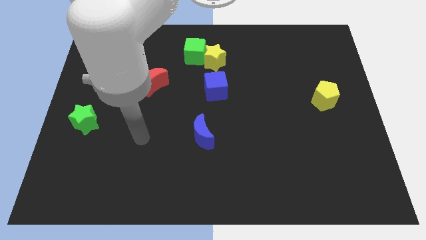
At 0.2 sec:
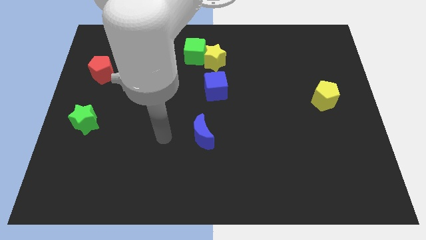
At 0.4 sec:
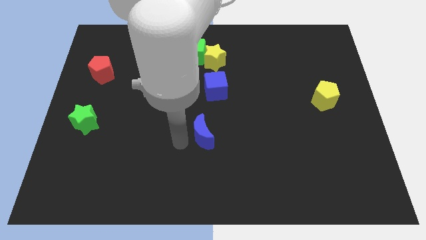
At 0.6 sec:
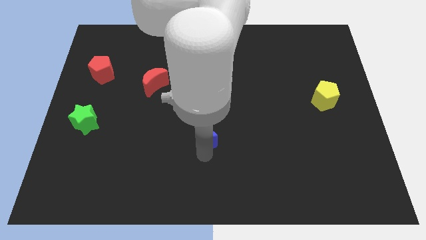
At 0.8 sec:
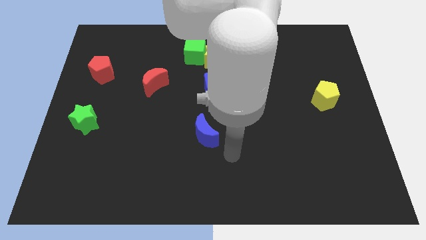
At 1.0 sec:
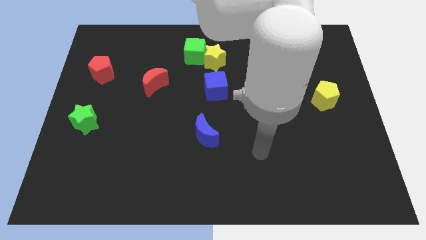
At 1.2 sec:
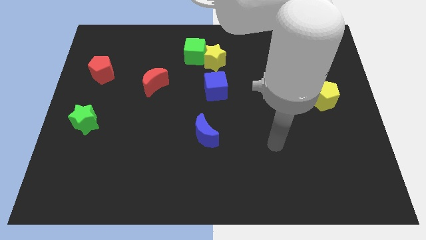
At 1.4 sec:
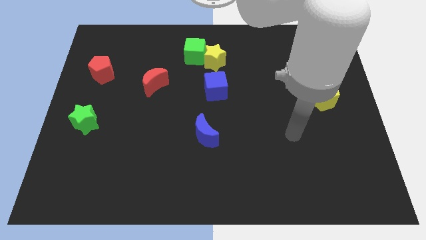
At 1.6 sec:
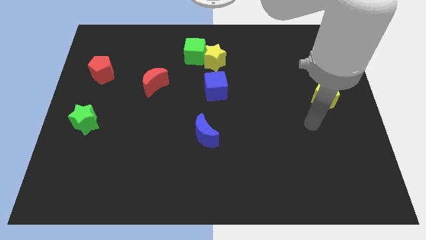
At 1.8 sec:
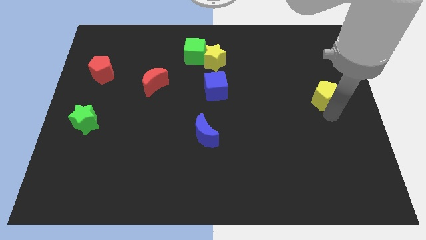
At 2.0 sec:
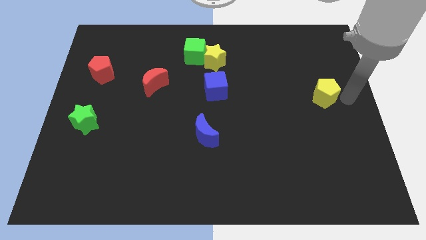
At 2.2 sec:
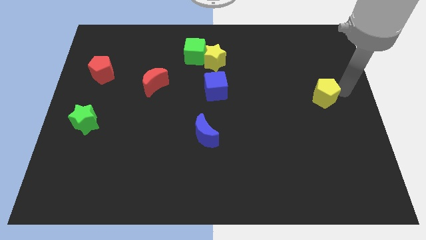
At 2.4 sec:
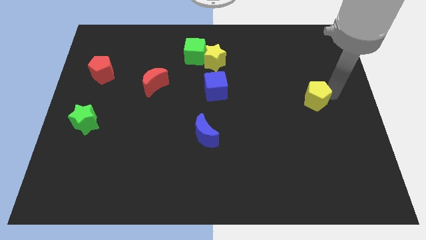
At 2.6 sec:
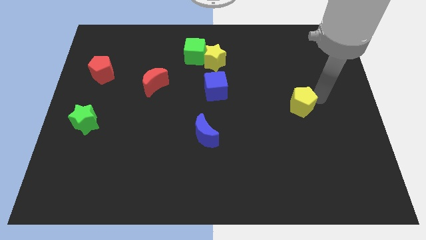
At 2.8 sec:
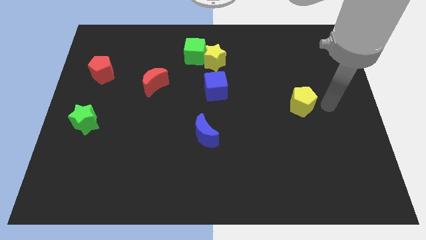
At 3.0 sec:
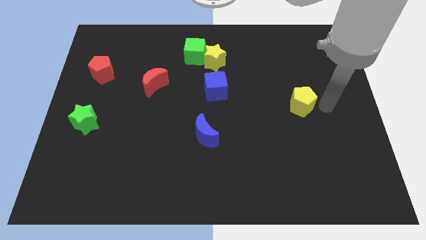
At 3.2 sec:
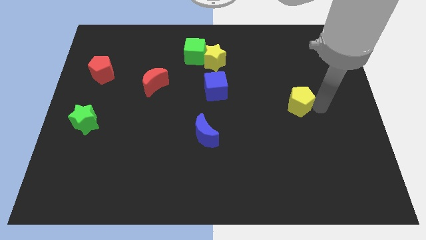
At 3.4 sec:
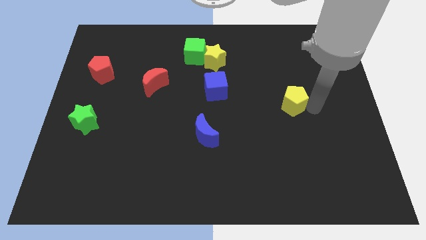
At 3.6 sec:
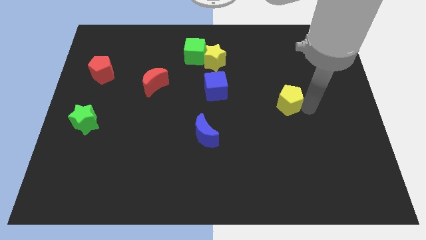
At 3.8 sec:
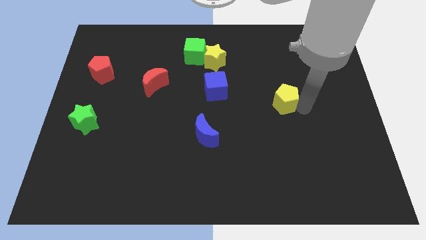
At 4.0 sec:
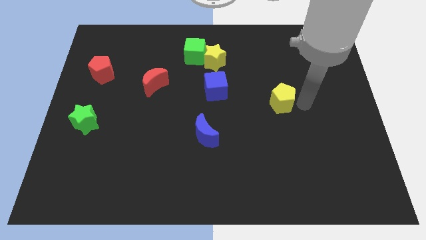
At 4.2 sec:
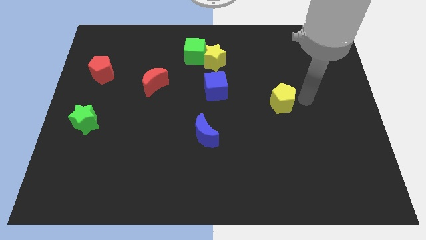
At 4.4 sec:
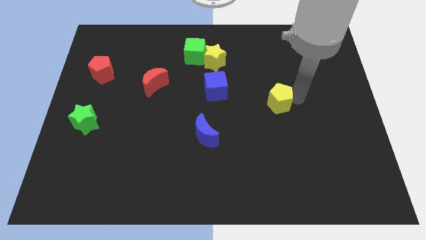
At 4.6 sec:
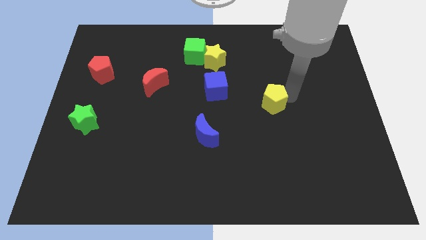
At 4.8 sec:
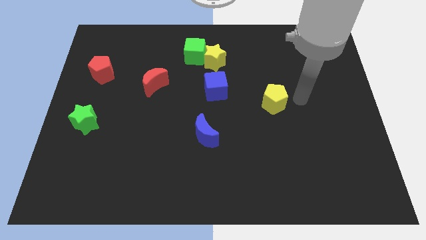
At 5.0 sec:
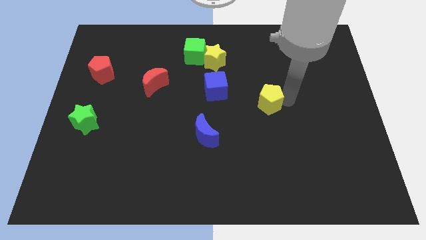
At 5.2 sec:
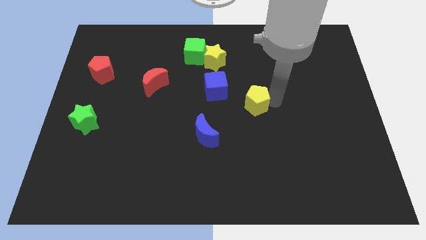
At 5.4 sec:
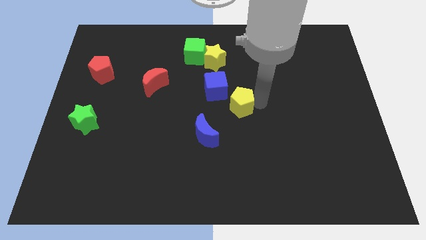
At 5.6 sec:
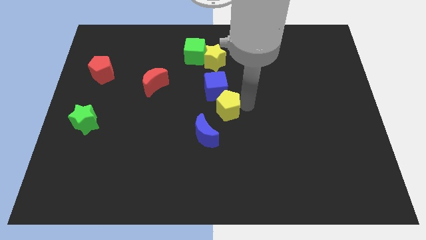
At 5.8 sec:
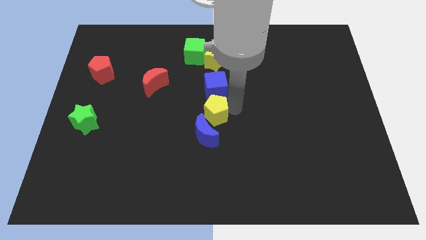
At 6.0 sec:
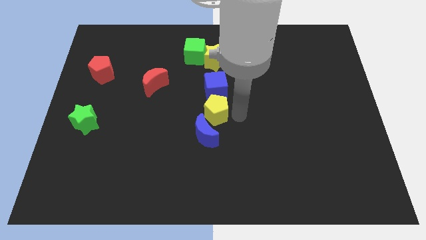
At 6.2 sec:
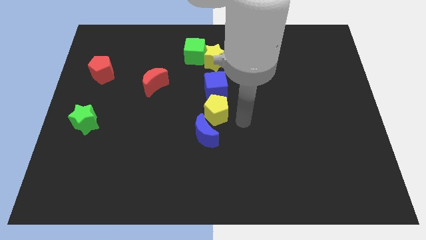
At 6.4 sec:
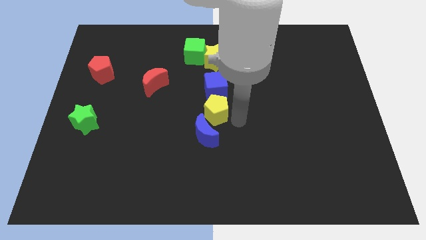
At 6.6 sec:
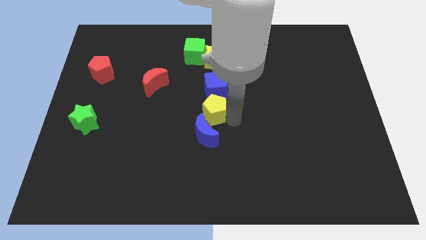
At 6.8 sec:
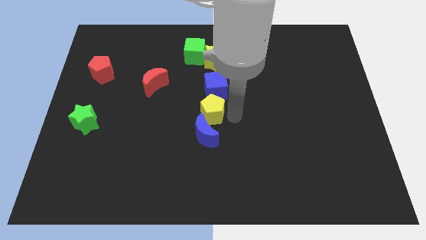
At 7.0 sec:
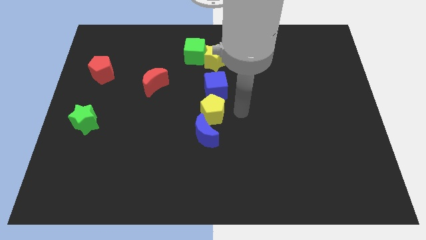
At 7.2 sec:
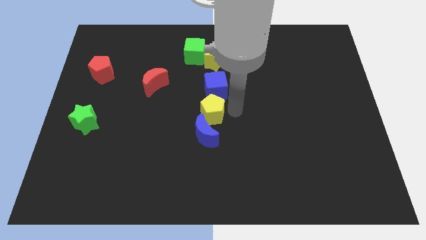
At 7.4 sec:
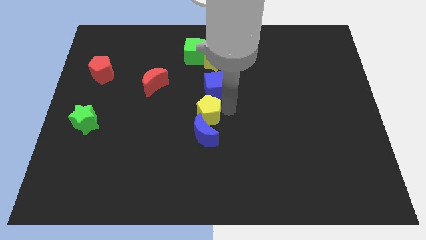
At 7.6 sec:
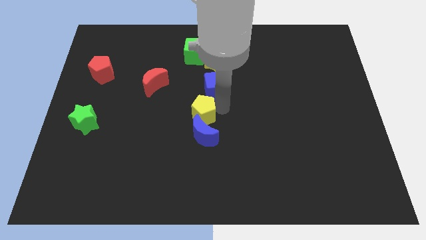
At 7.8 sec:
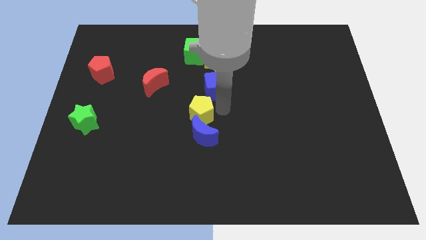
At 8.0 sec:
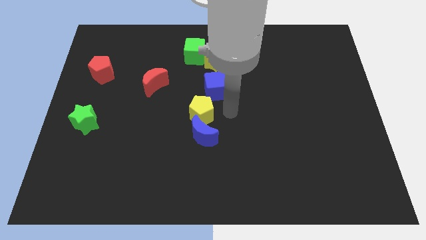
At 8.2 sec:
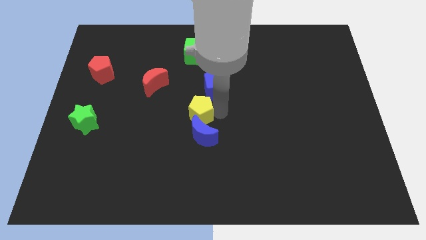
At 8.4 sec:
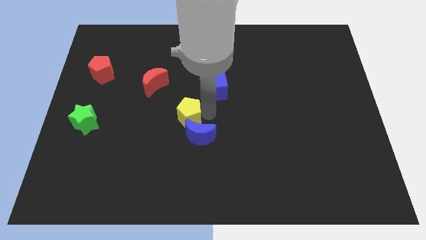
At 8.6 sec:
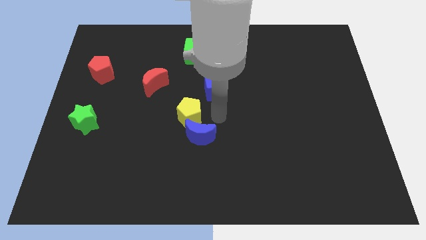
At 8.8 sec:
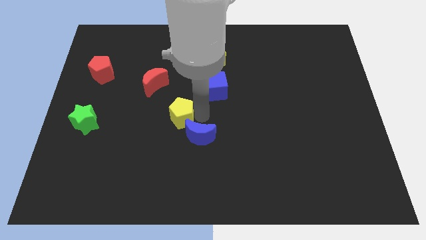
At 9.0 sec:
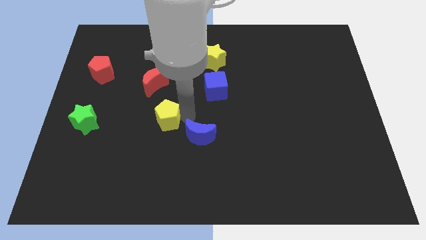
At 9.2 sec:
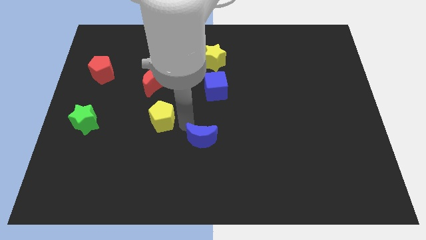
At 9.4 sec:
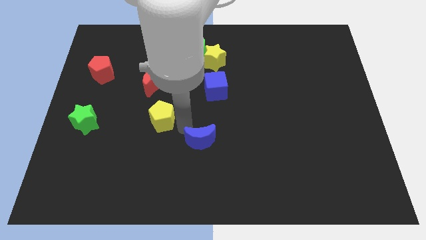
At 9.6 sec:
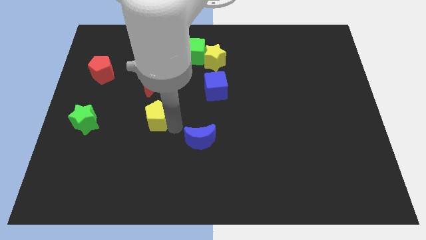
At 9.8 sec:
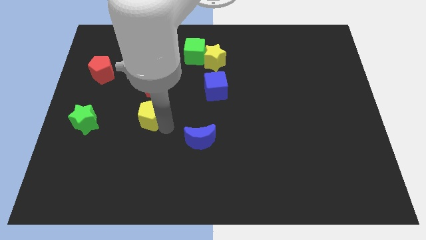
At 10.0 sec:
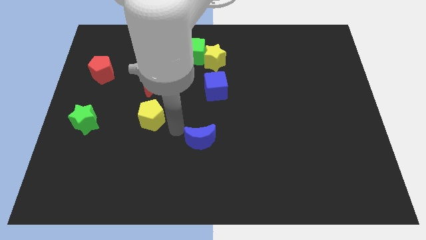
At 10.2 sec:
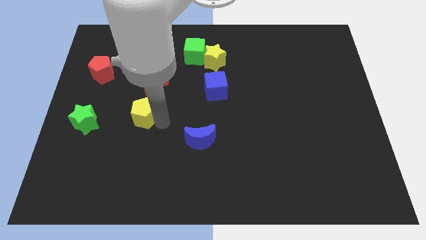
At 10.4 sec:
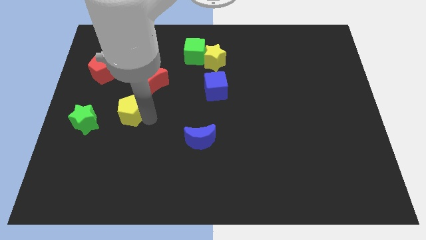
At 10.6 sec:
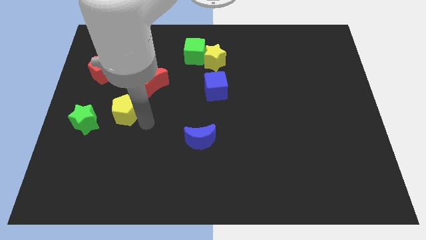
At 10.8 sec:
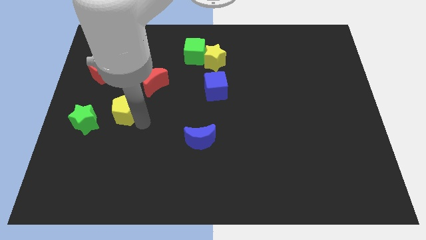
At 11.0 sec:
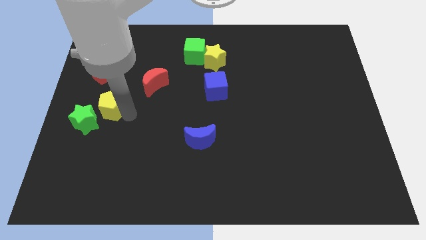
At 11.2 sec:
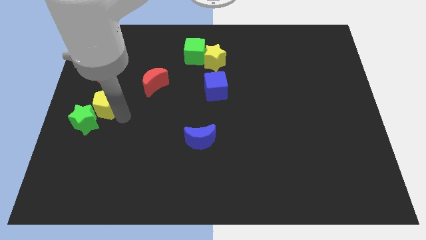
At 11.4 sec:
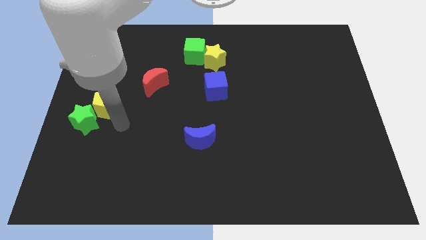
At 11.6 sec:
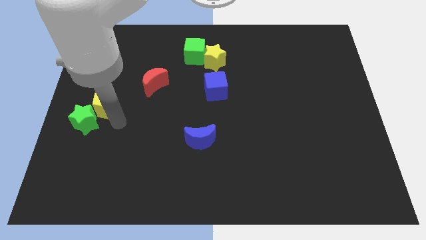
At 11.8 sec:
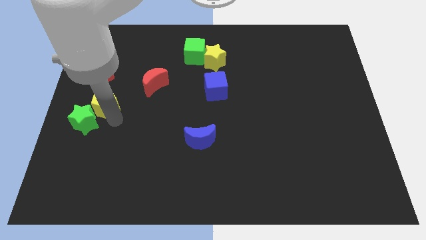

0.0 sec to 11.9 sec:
move the yellow pentagon to the left side

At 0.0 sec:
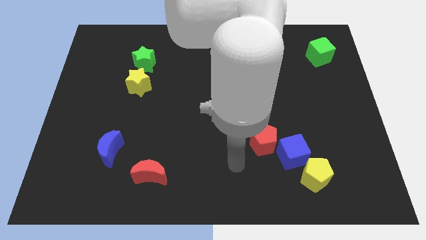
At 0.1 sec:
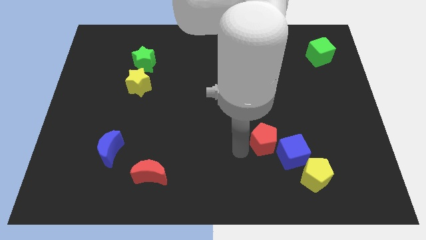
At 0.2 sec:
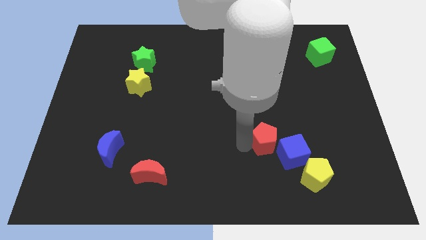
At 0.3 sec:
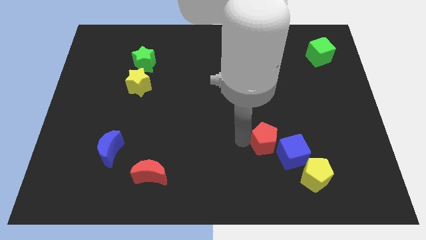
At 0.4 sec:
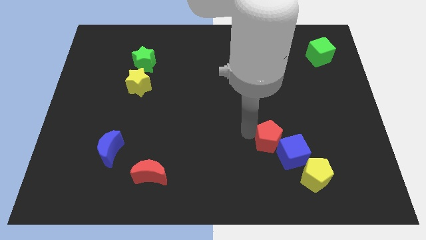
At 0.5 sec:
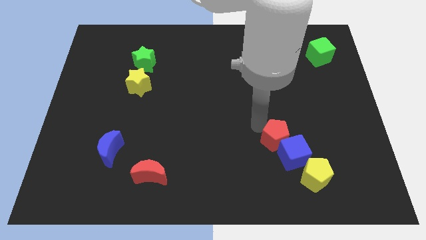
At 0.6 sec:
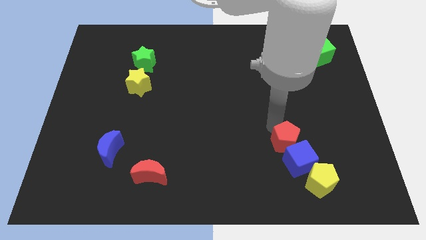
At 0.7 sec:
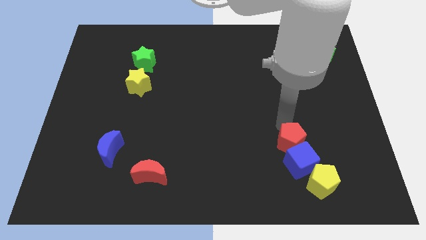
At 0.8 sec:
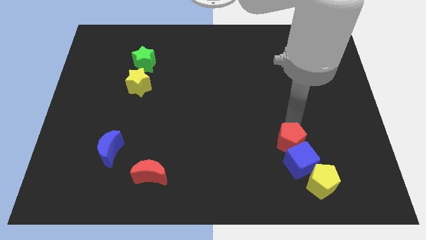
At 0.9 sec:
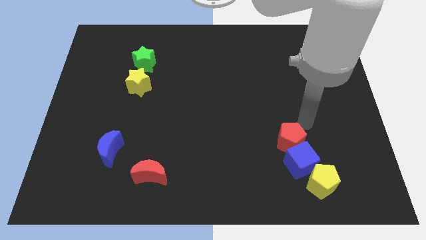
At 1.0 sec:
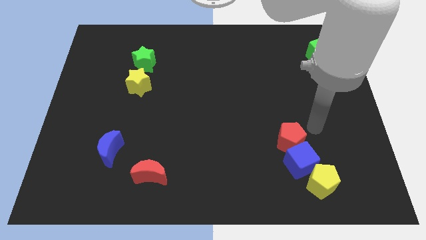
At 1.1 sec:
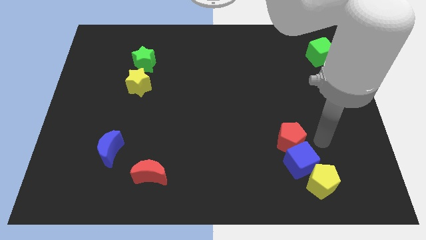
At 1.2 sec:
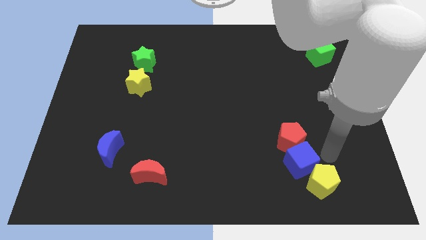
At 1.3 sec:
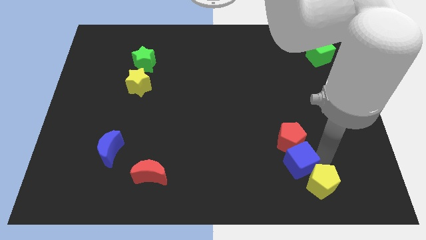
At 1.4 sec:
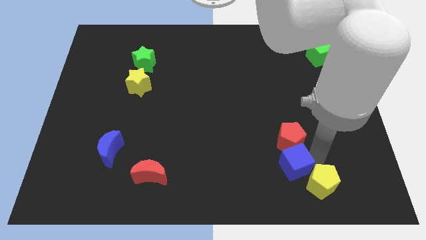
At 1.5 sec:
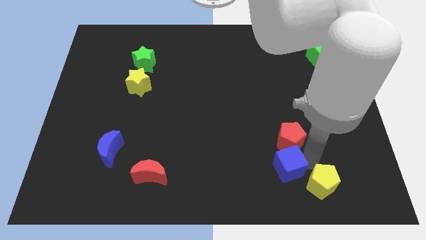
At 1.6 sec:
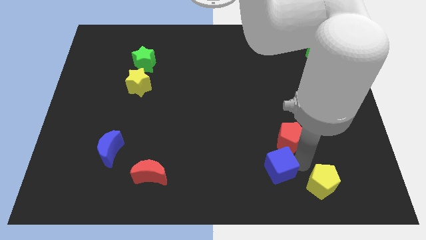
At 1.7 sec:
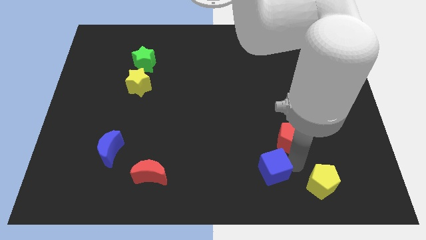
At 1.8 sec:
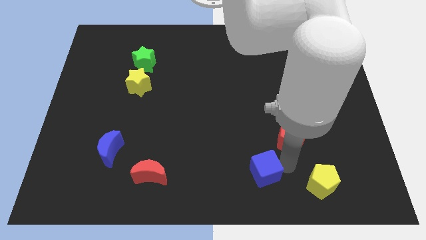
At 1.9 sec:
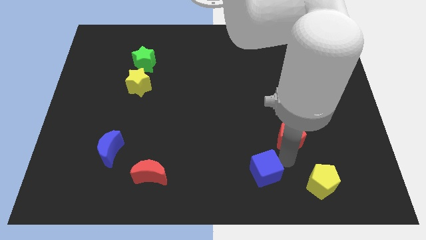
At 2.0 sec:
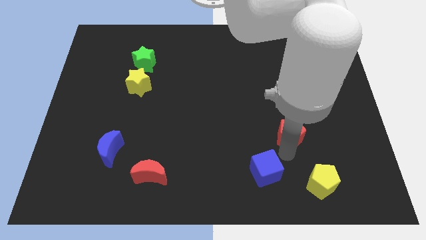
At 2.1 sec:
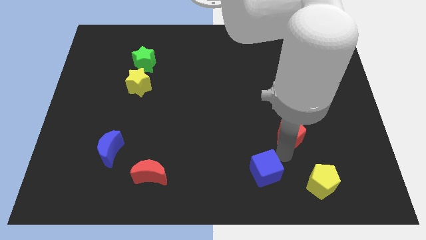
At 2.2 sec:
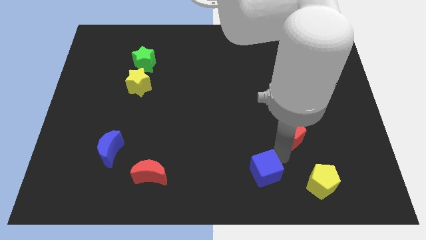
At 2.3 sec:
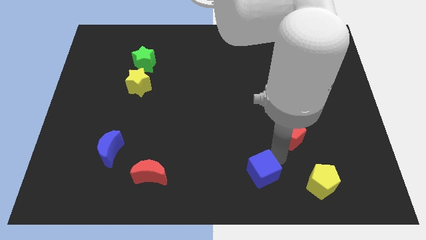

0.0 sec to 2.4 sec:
slide the blue cube to the bottom
